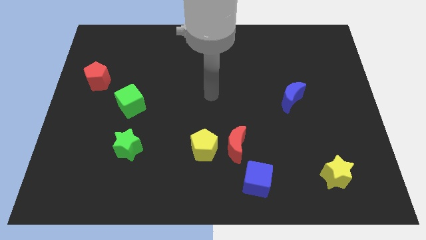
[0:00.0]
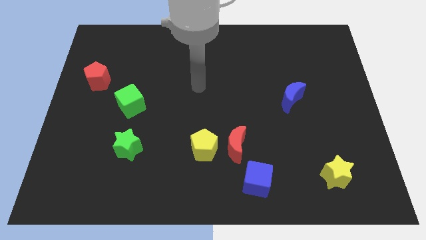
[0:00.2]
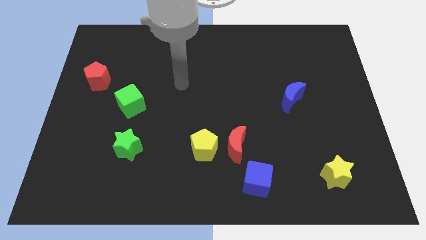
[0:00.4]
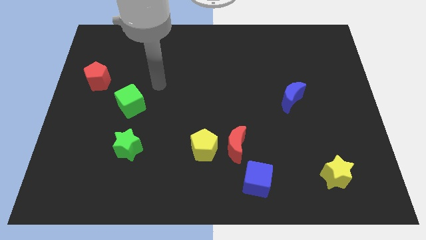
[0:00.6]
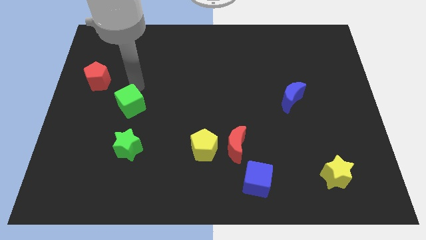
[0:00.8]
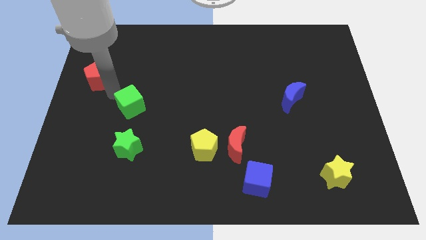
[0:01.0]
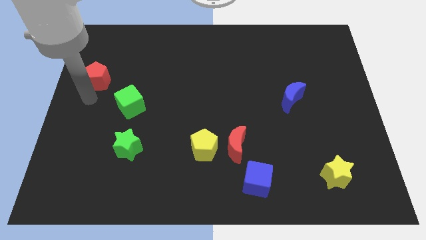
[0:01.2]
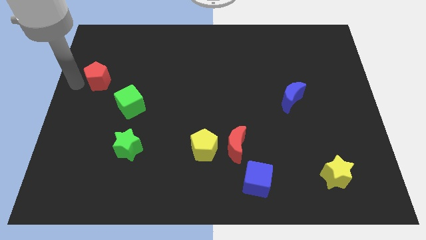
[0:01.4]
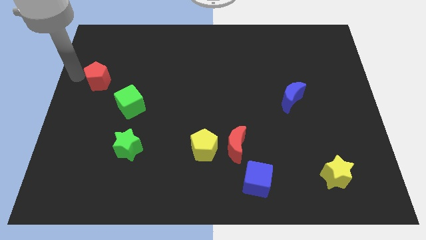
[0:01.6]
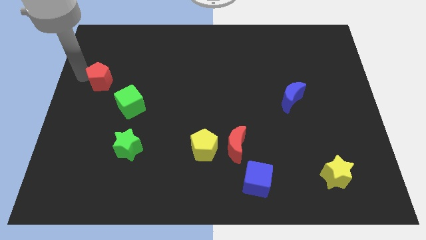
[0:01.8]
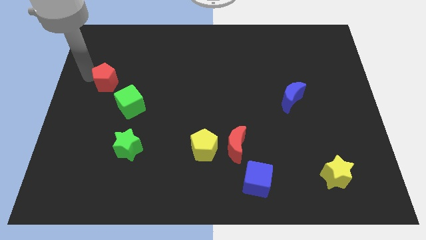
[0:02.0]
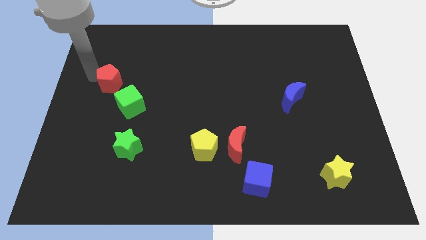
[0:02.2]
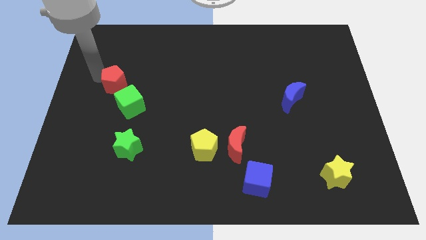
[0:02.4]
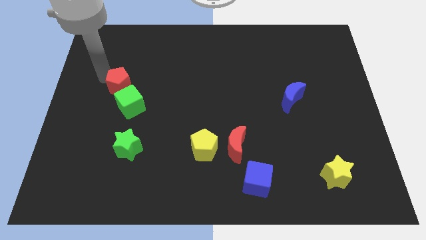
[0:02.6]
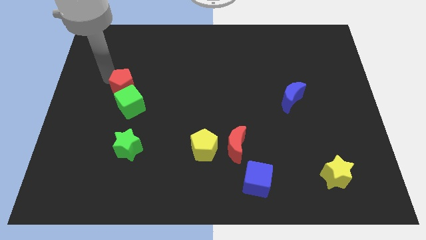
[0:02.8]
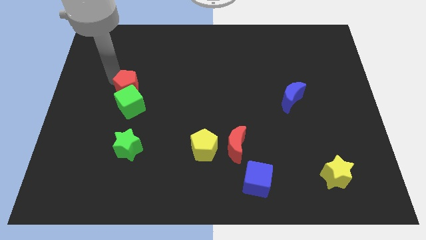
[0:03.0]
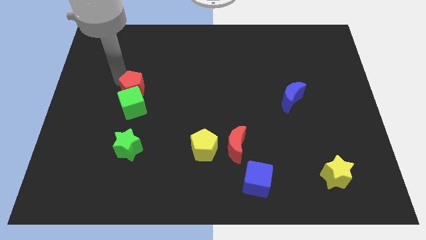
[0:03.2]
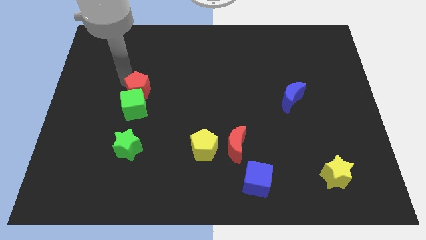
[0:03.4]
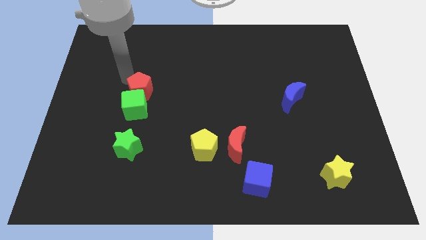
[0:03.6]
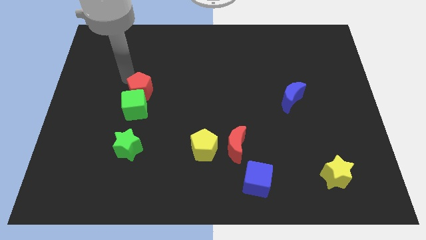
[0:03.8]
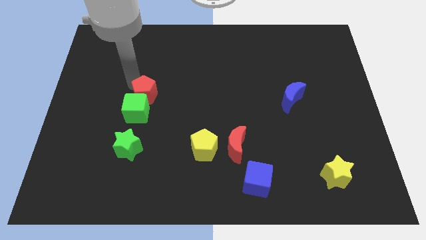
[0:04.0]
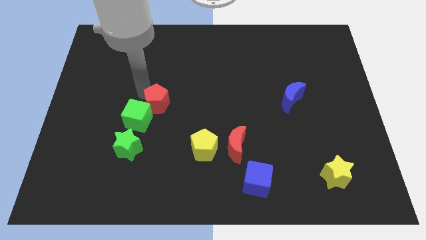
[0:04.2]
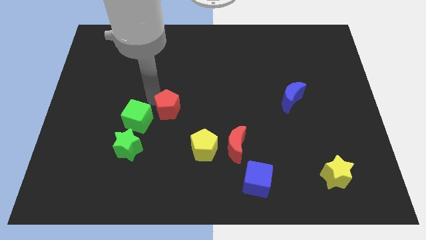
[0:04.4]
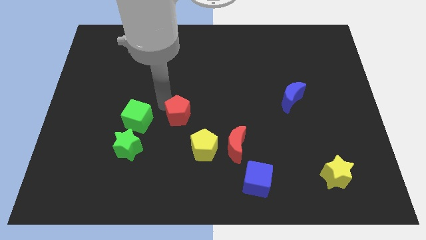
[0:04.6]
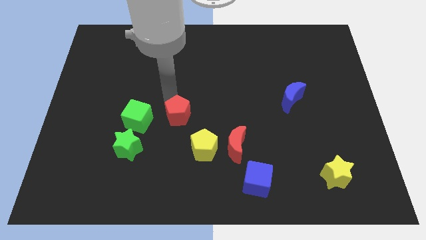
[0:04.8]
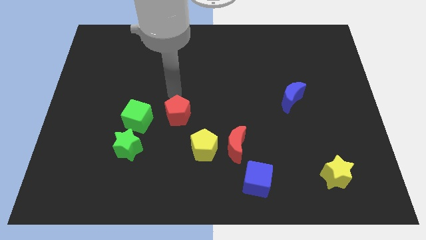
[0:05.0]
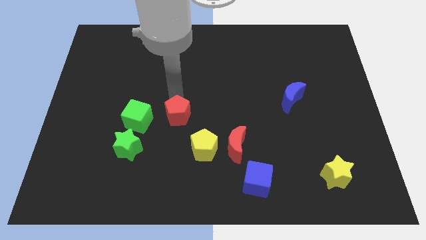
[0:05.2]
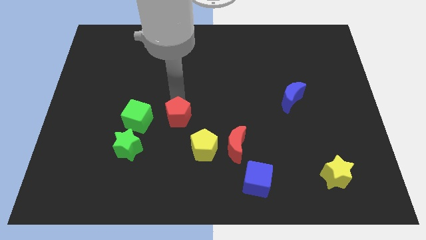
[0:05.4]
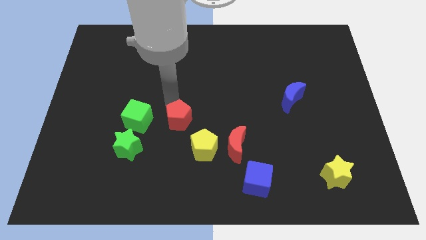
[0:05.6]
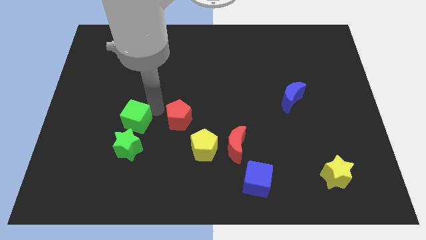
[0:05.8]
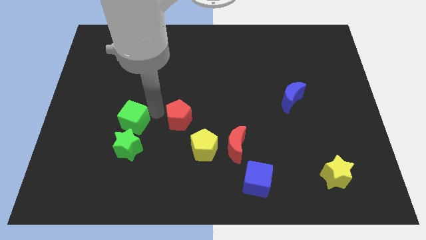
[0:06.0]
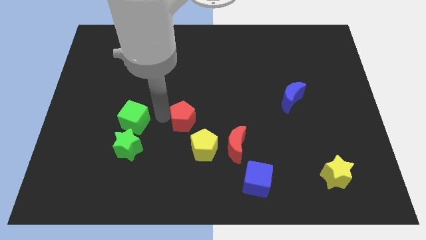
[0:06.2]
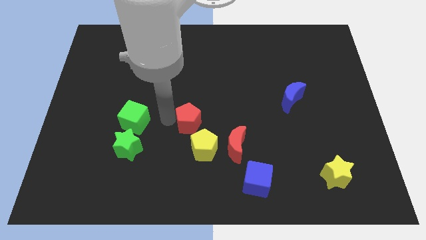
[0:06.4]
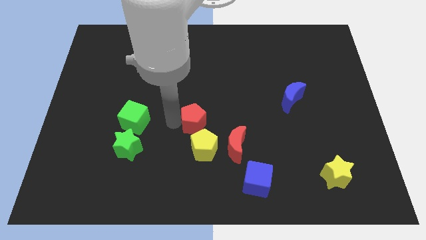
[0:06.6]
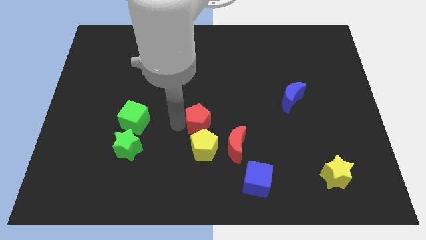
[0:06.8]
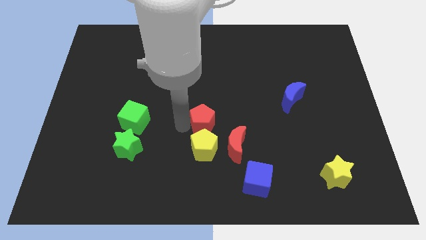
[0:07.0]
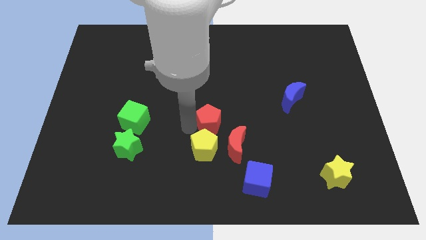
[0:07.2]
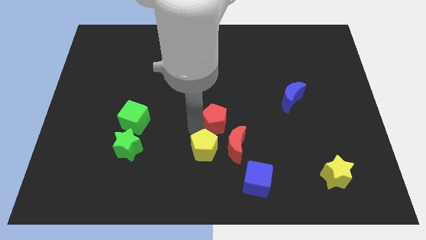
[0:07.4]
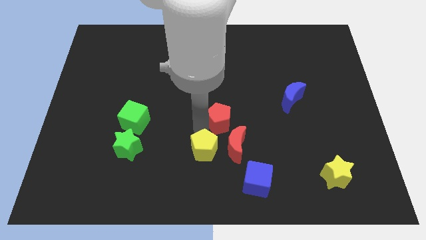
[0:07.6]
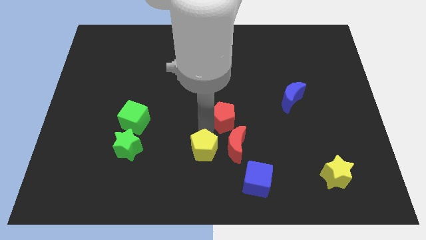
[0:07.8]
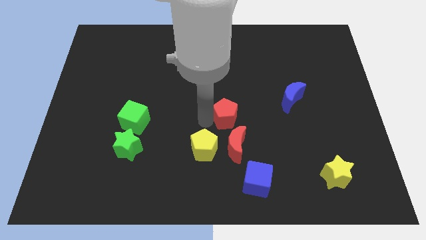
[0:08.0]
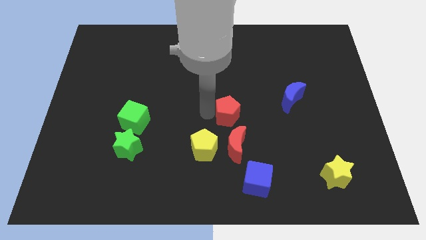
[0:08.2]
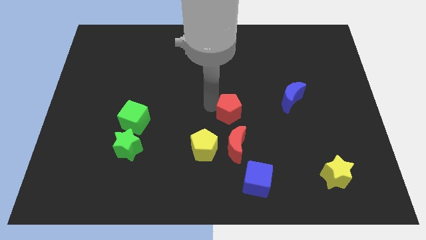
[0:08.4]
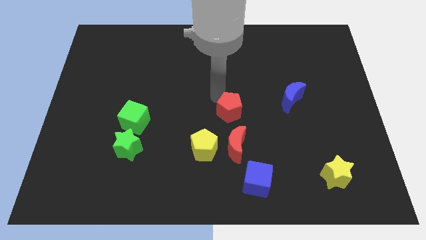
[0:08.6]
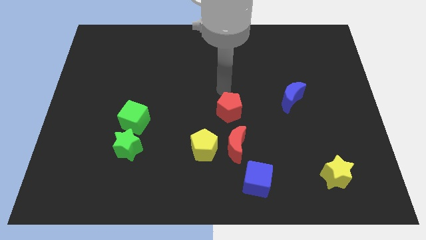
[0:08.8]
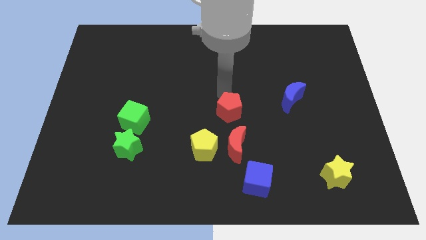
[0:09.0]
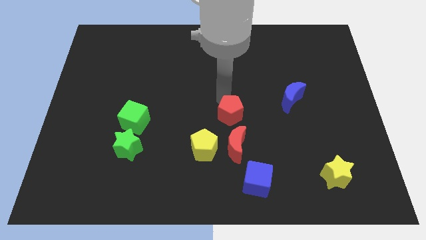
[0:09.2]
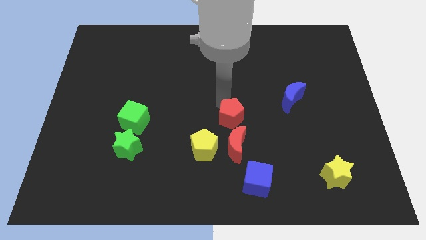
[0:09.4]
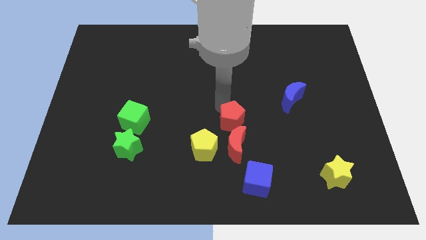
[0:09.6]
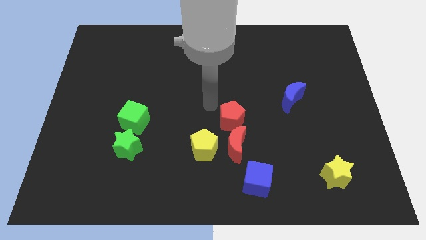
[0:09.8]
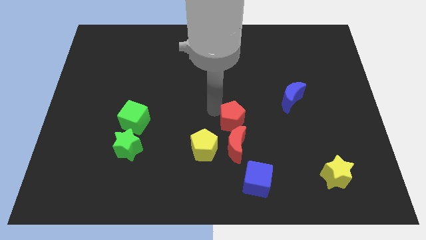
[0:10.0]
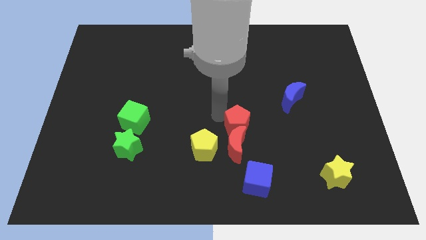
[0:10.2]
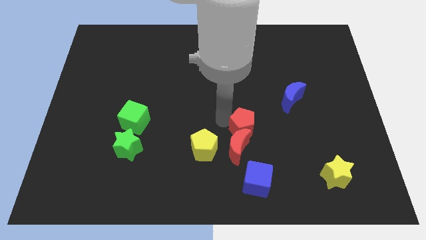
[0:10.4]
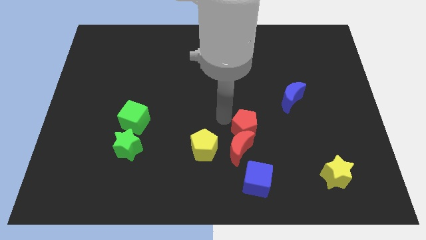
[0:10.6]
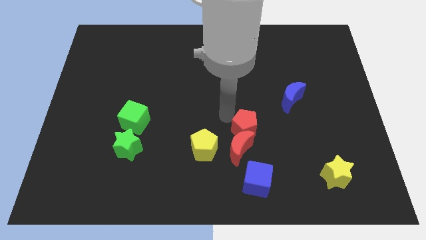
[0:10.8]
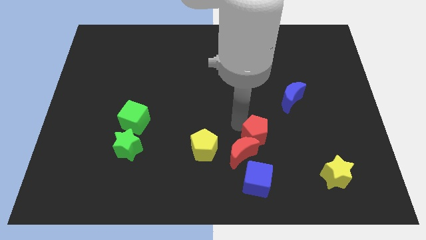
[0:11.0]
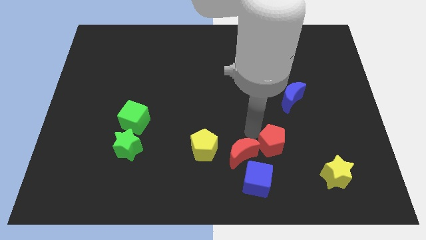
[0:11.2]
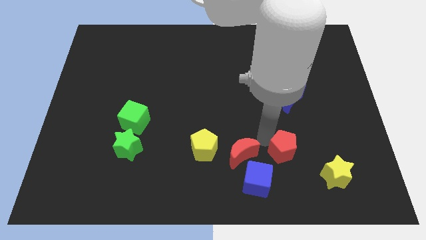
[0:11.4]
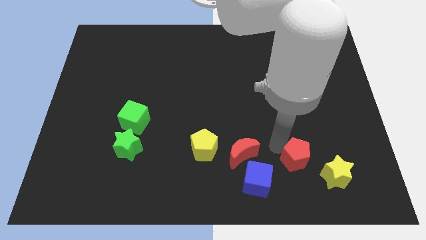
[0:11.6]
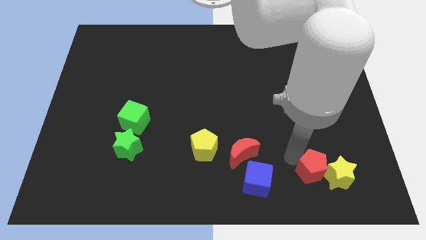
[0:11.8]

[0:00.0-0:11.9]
slide the red pentagon to the yellow star

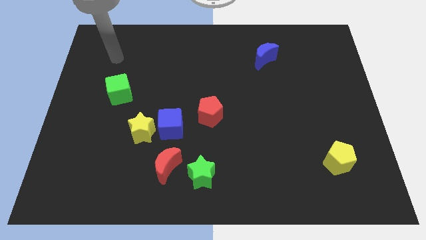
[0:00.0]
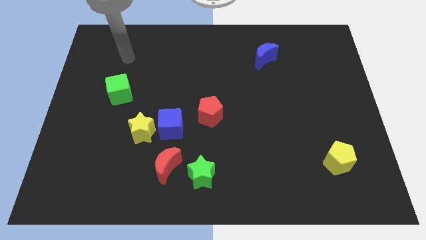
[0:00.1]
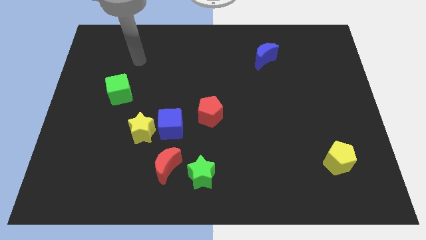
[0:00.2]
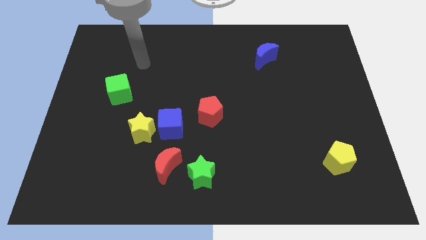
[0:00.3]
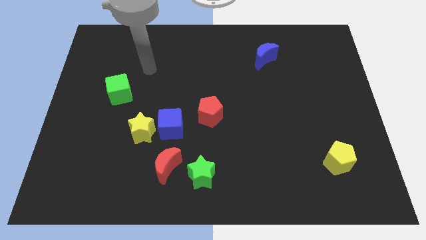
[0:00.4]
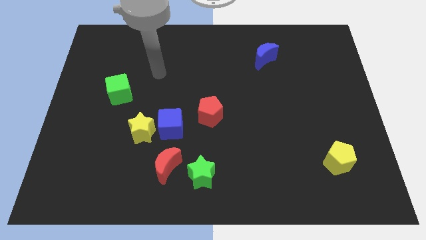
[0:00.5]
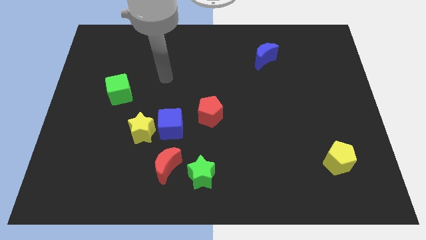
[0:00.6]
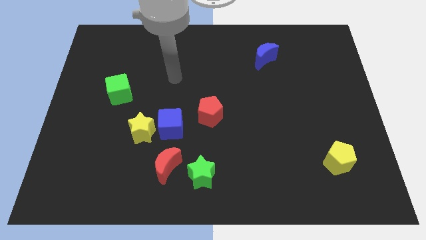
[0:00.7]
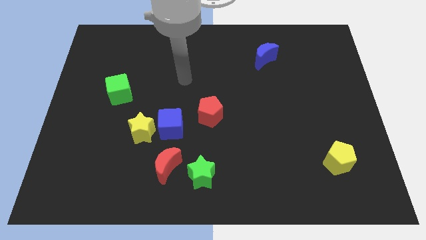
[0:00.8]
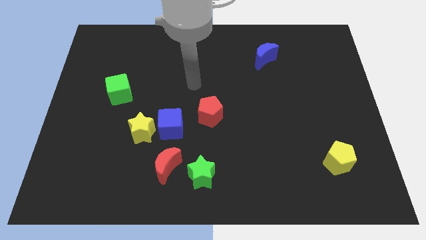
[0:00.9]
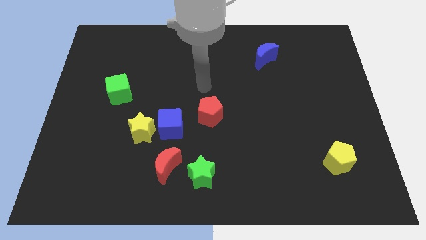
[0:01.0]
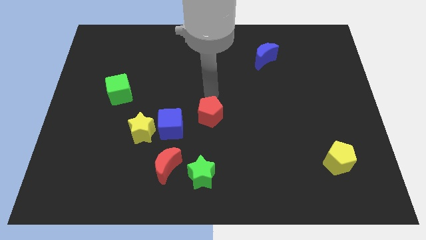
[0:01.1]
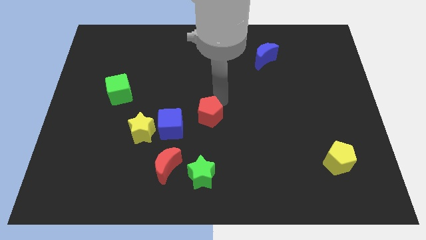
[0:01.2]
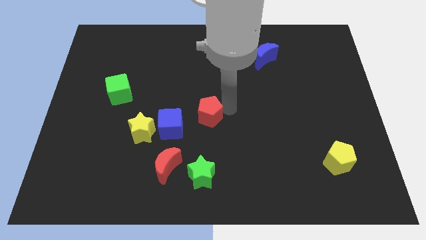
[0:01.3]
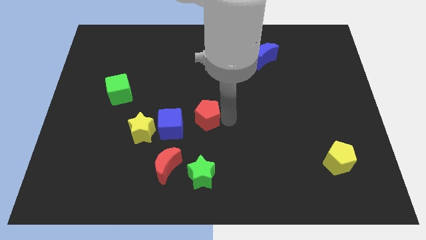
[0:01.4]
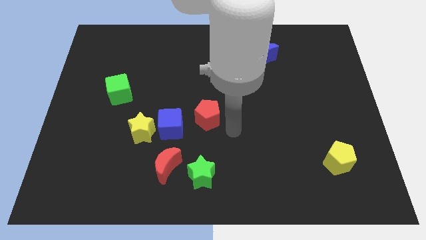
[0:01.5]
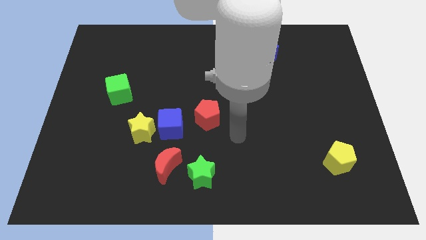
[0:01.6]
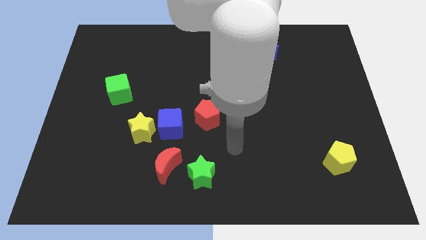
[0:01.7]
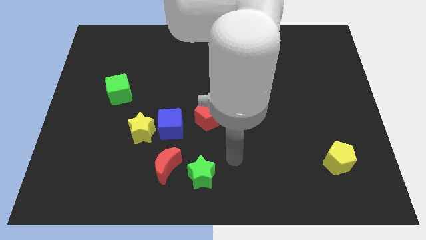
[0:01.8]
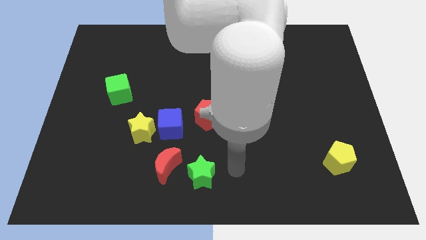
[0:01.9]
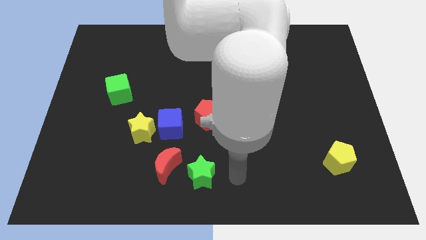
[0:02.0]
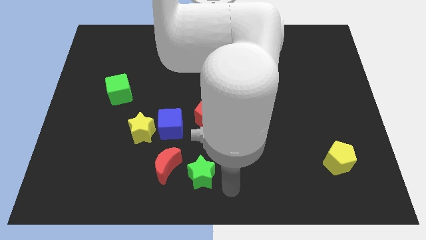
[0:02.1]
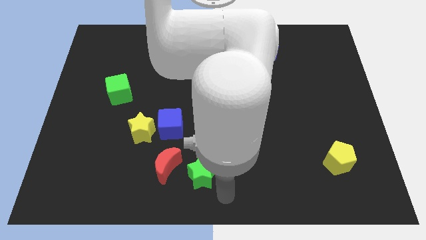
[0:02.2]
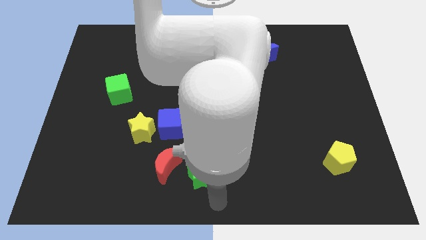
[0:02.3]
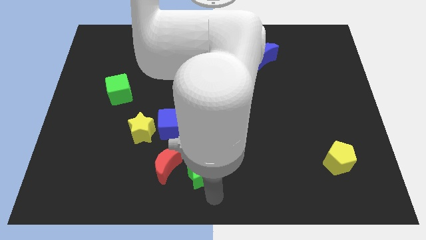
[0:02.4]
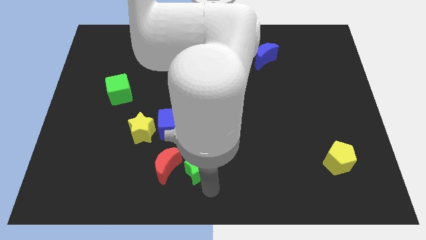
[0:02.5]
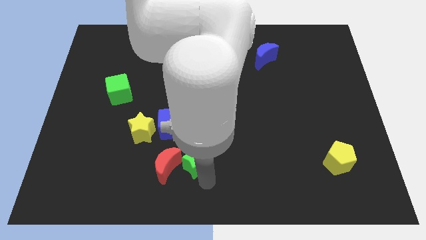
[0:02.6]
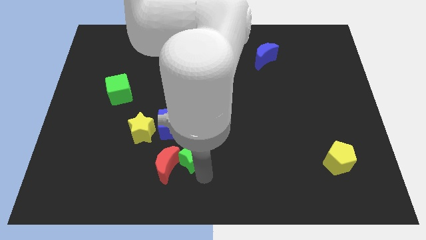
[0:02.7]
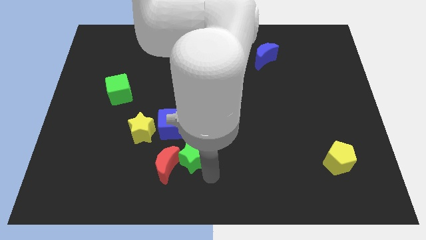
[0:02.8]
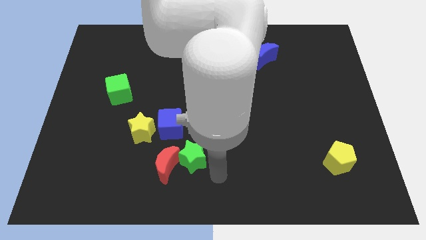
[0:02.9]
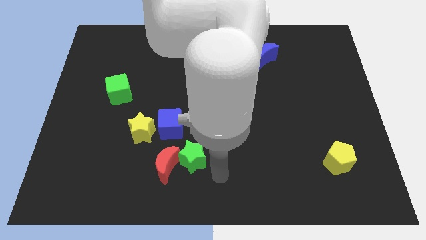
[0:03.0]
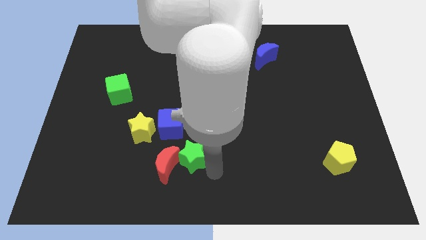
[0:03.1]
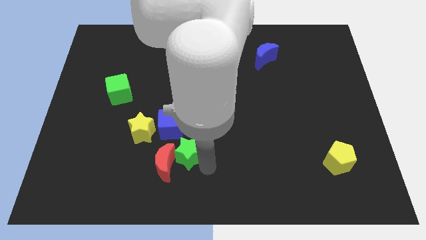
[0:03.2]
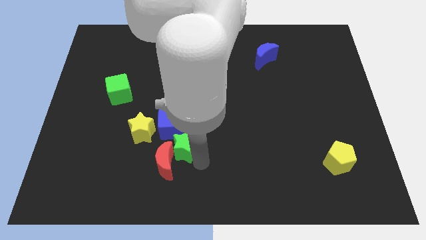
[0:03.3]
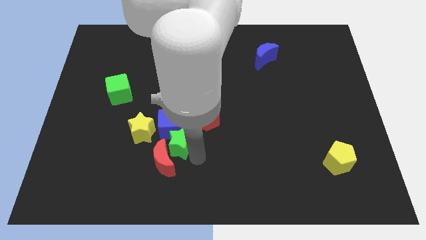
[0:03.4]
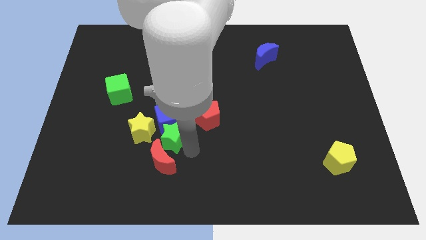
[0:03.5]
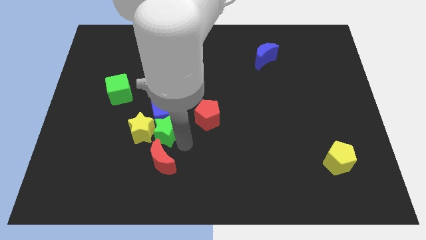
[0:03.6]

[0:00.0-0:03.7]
put the green star to the yellow star
